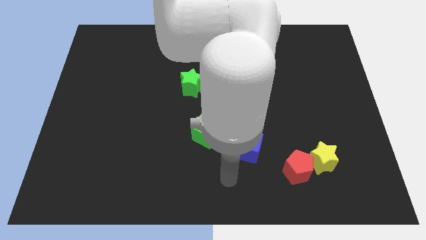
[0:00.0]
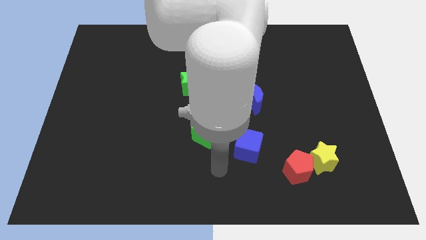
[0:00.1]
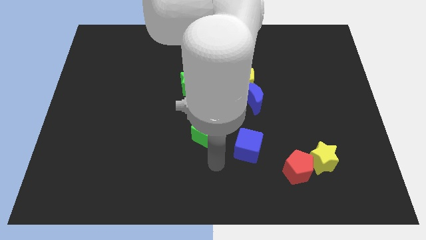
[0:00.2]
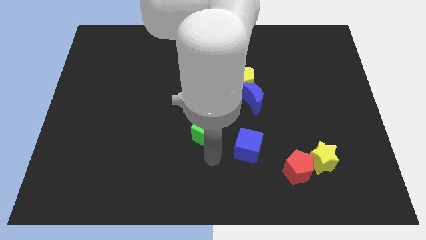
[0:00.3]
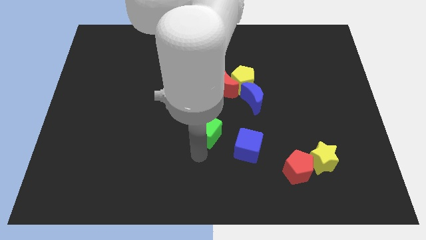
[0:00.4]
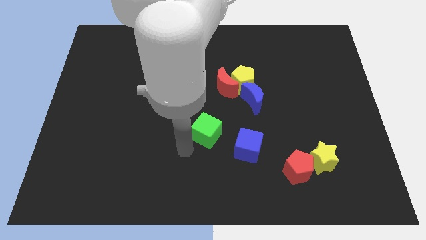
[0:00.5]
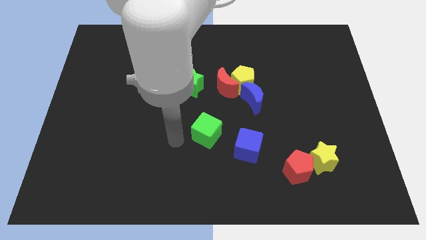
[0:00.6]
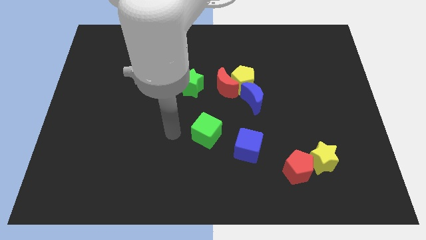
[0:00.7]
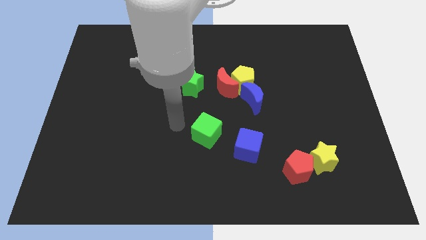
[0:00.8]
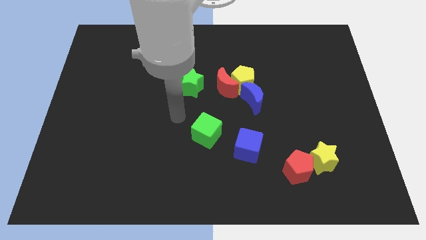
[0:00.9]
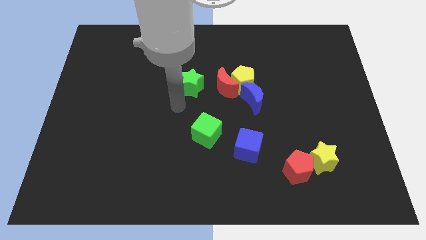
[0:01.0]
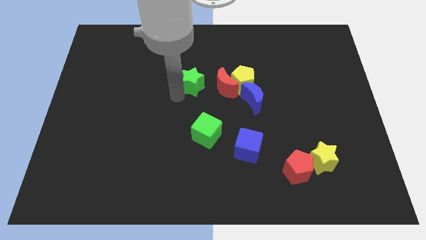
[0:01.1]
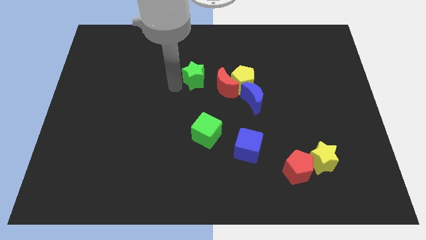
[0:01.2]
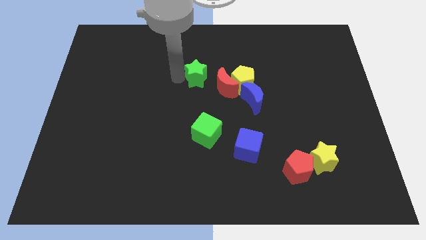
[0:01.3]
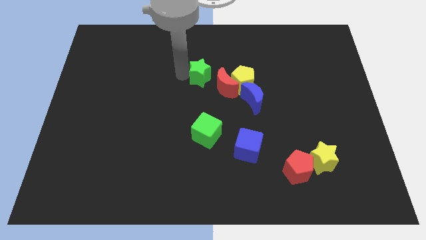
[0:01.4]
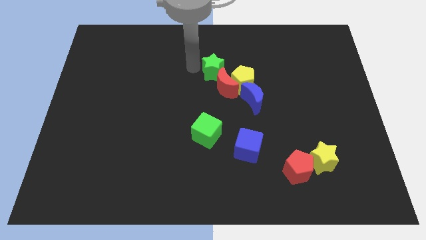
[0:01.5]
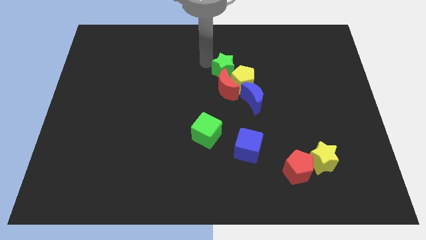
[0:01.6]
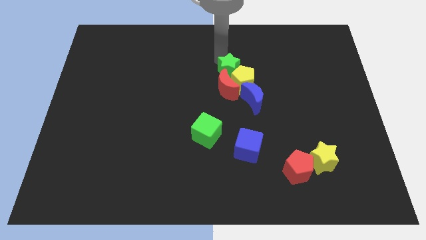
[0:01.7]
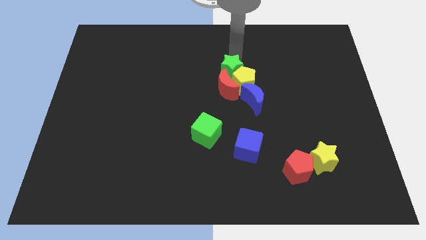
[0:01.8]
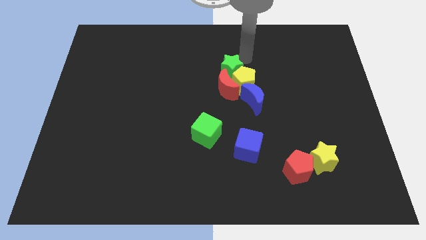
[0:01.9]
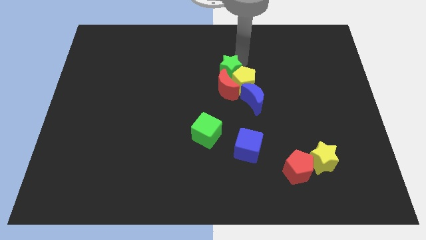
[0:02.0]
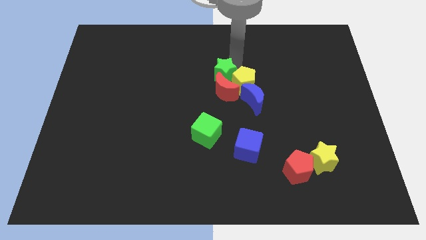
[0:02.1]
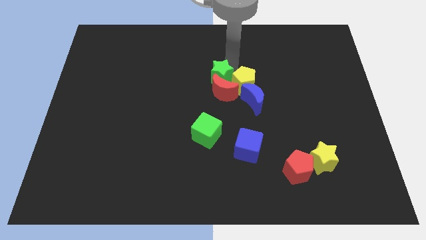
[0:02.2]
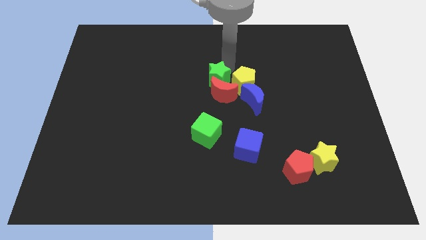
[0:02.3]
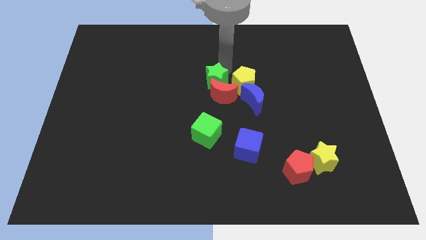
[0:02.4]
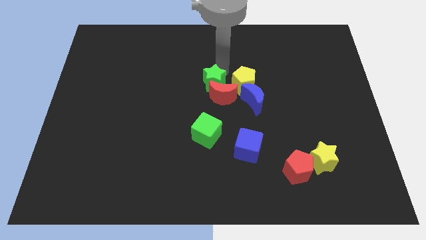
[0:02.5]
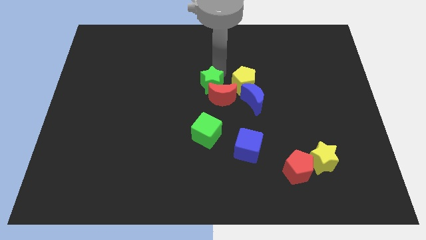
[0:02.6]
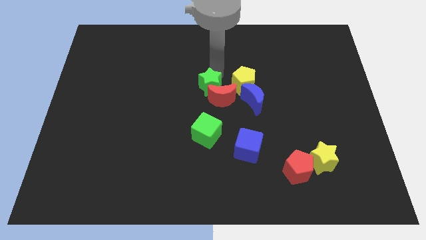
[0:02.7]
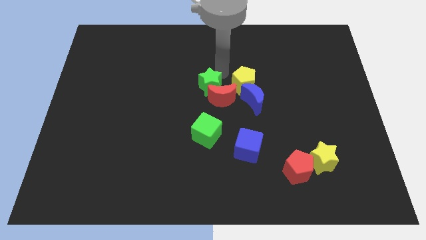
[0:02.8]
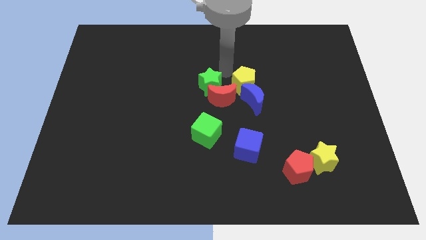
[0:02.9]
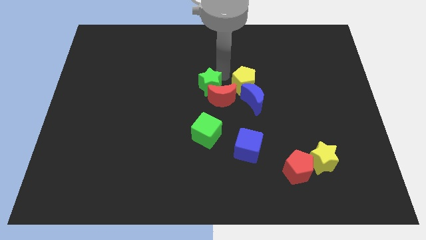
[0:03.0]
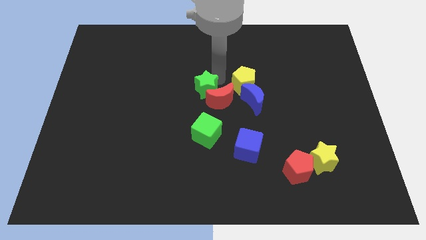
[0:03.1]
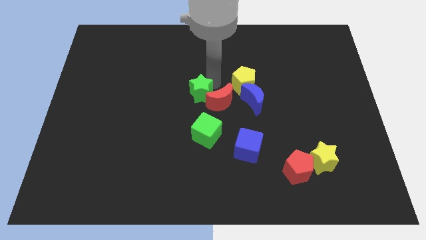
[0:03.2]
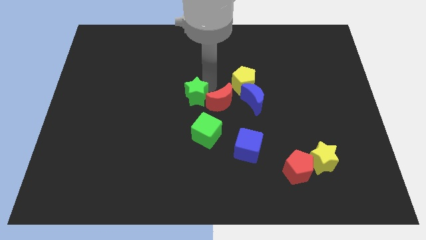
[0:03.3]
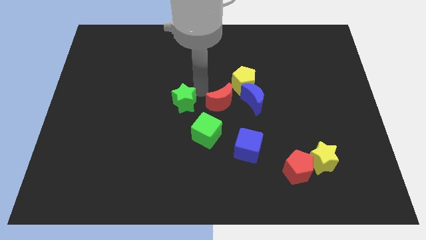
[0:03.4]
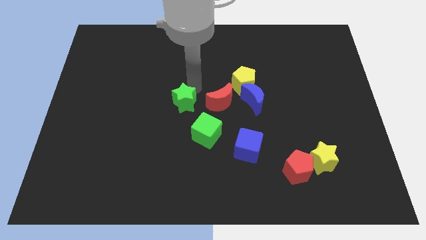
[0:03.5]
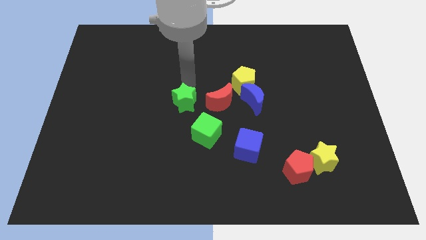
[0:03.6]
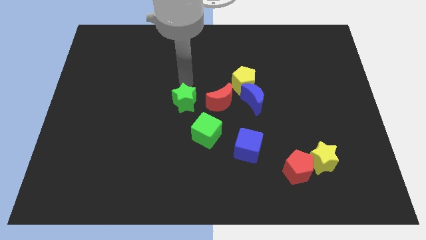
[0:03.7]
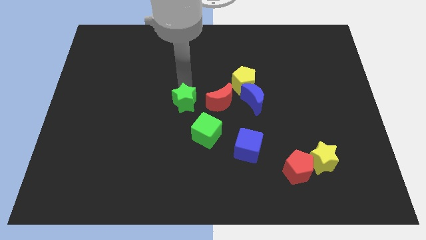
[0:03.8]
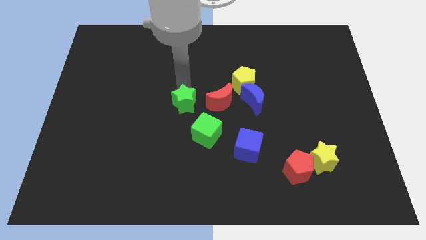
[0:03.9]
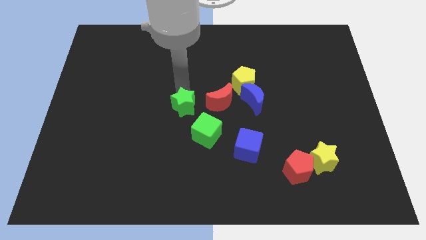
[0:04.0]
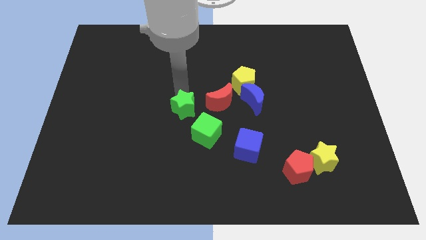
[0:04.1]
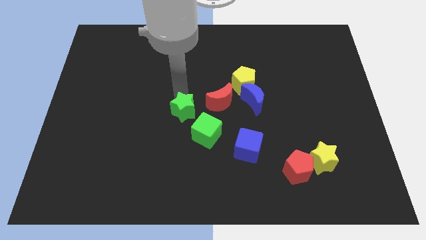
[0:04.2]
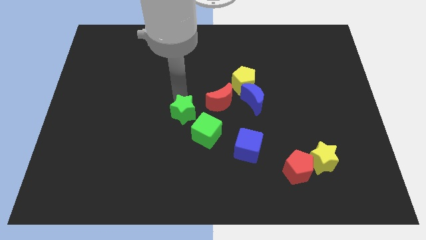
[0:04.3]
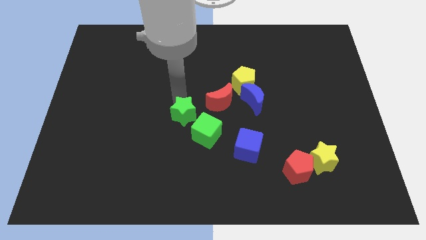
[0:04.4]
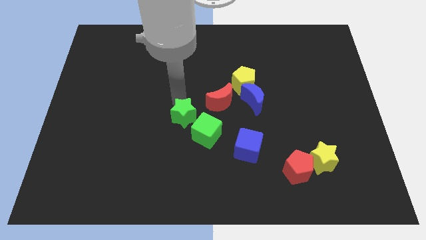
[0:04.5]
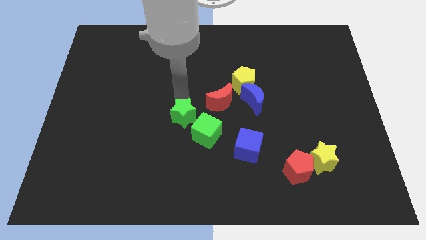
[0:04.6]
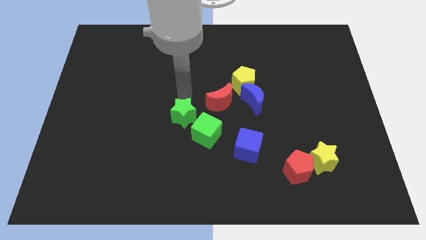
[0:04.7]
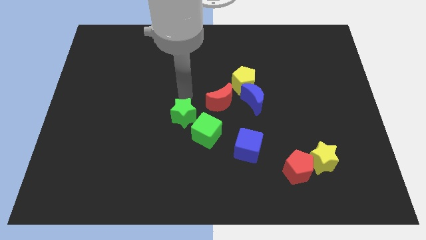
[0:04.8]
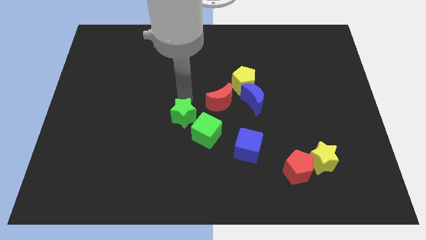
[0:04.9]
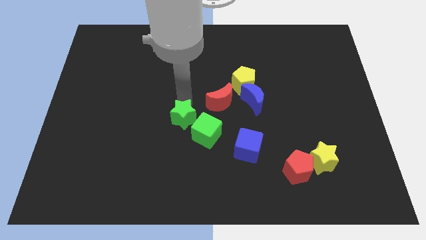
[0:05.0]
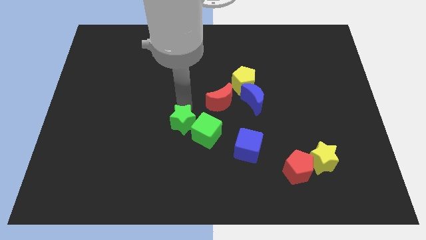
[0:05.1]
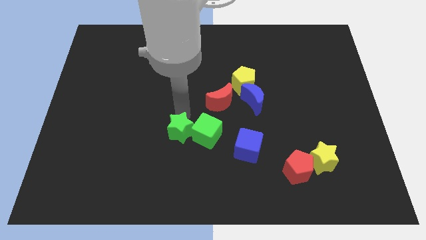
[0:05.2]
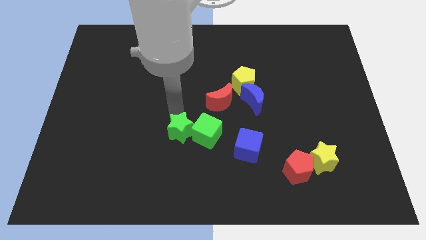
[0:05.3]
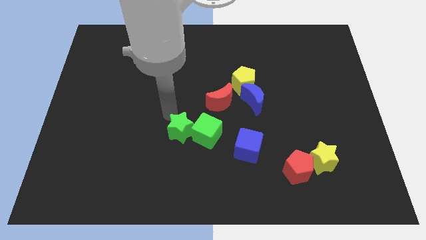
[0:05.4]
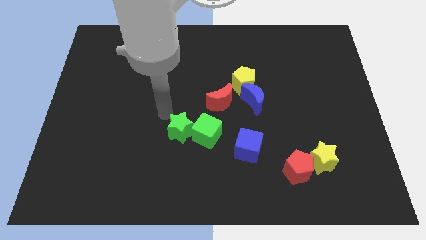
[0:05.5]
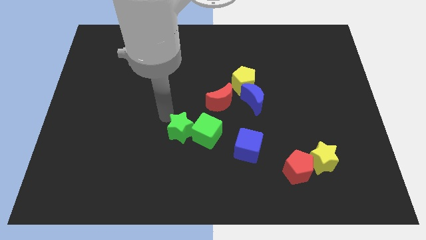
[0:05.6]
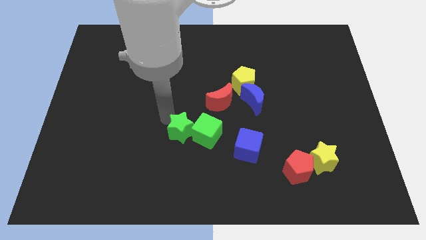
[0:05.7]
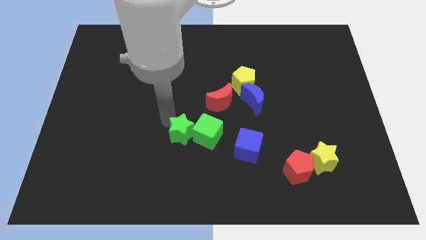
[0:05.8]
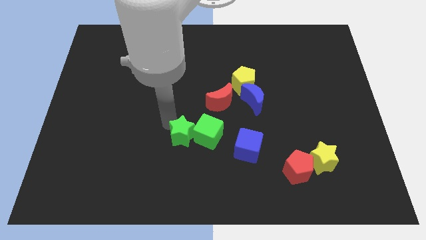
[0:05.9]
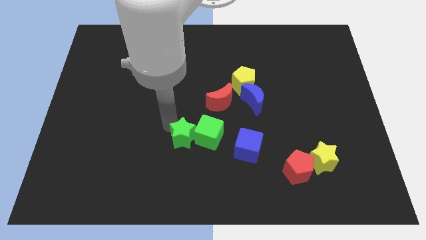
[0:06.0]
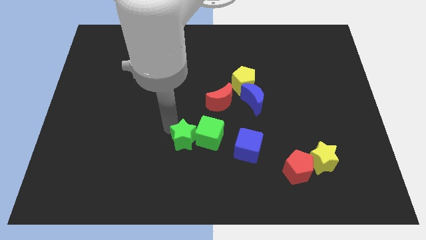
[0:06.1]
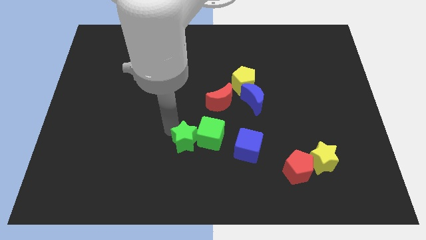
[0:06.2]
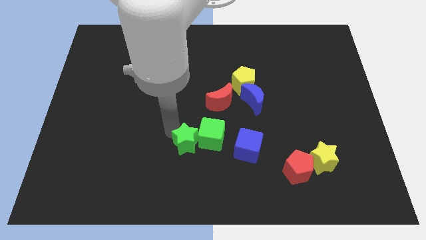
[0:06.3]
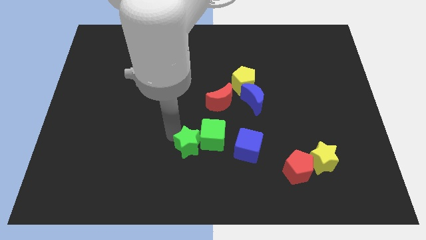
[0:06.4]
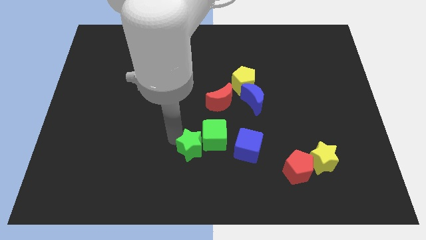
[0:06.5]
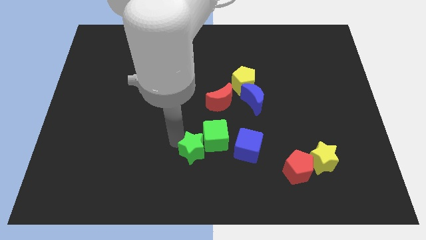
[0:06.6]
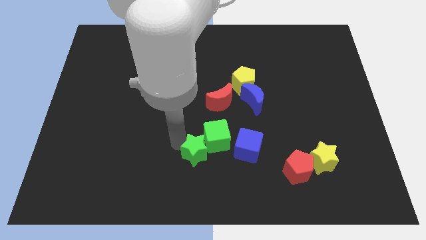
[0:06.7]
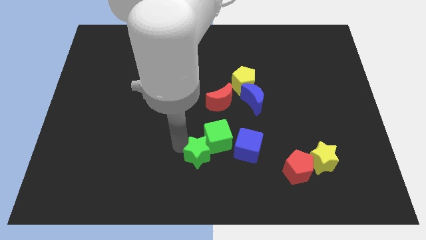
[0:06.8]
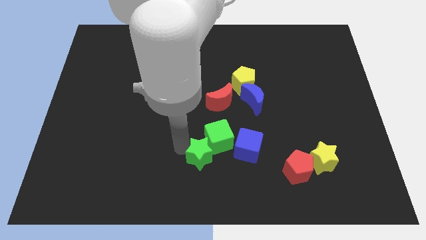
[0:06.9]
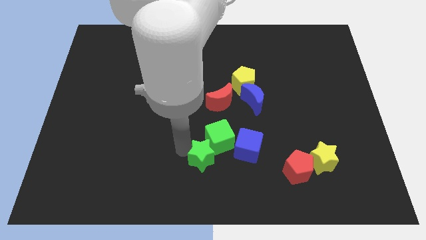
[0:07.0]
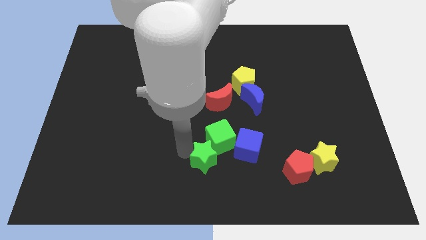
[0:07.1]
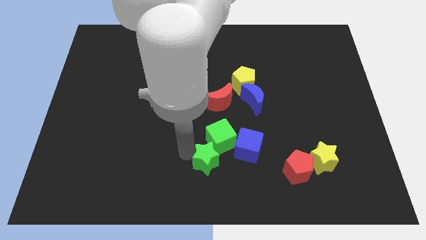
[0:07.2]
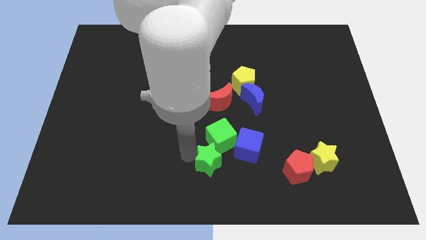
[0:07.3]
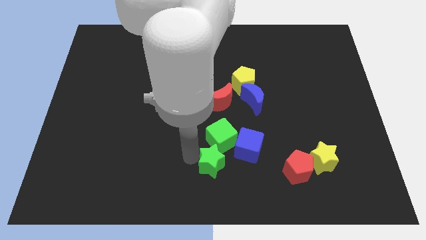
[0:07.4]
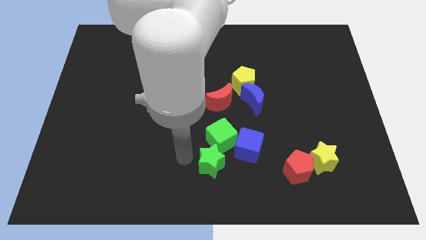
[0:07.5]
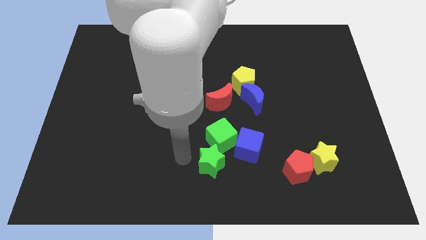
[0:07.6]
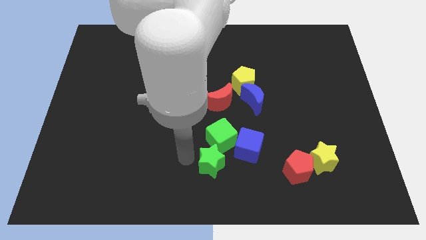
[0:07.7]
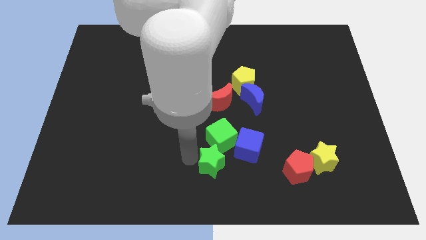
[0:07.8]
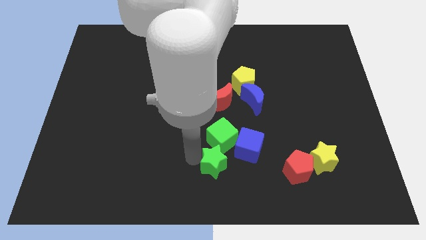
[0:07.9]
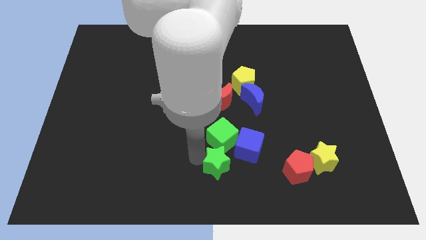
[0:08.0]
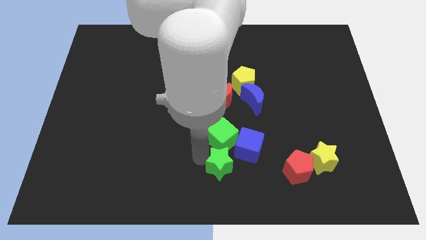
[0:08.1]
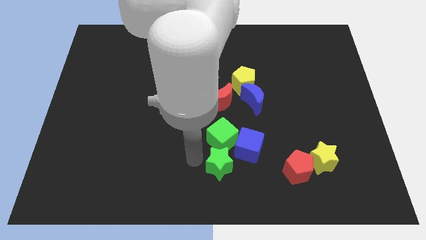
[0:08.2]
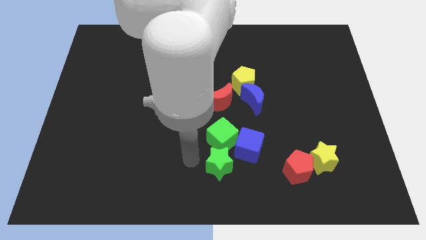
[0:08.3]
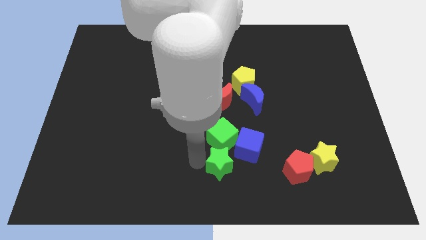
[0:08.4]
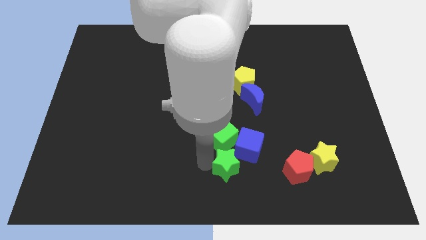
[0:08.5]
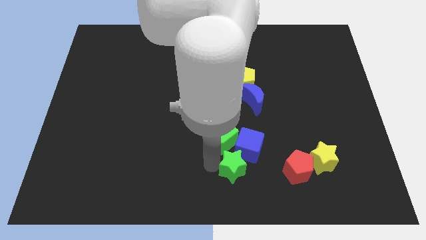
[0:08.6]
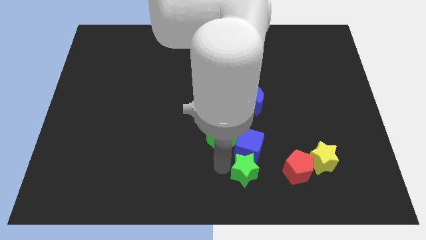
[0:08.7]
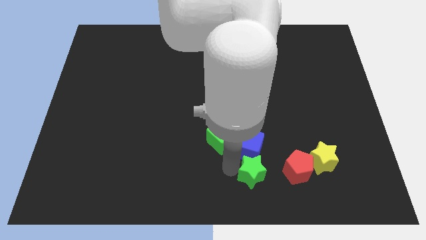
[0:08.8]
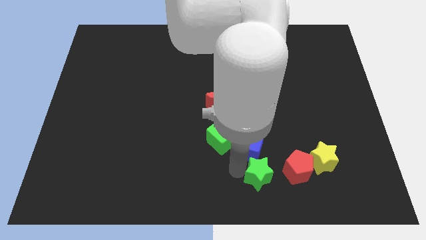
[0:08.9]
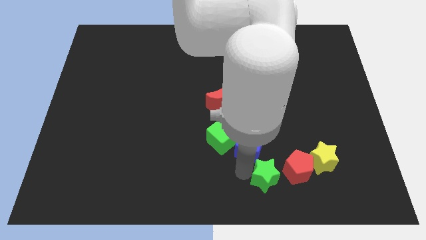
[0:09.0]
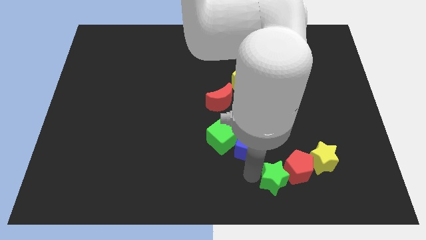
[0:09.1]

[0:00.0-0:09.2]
slide the green star to the bottom left of the yellow star
